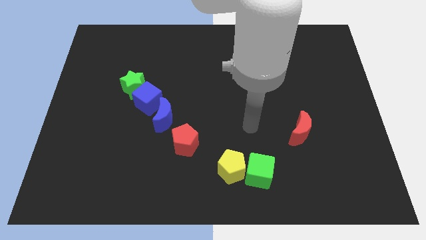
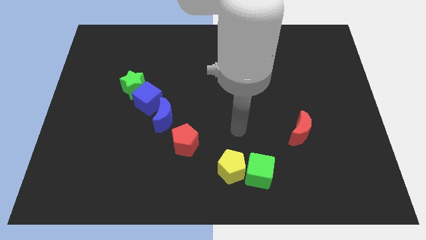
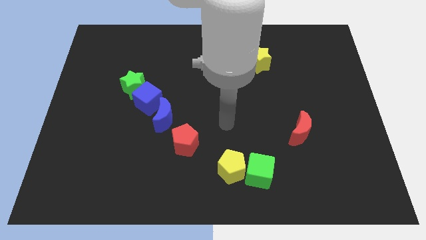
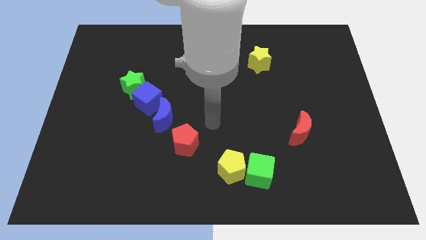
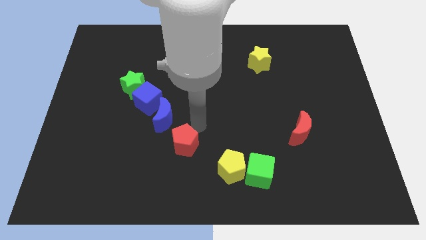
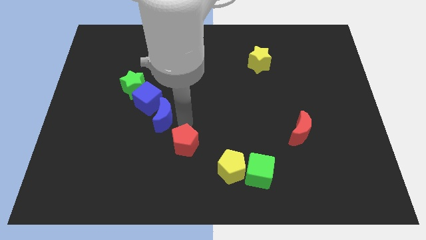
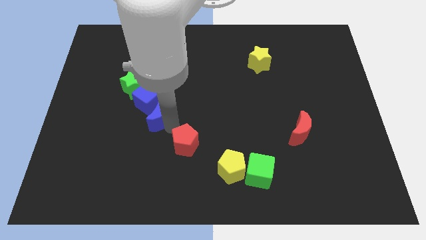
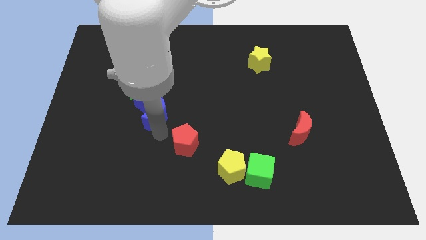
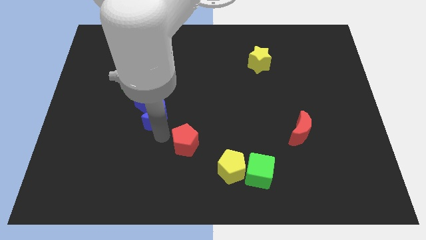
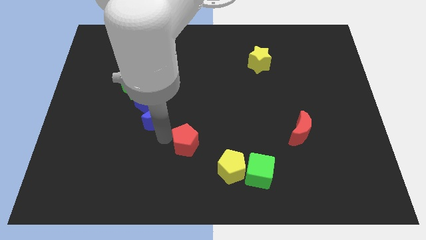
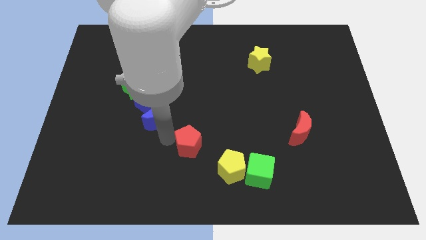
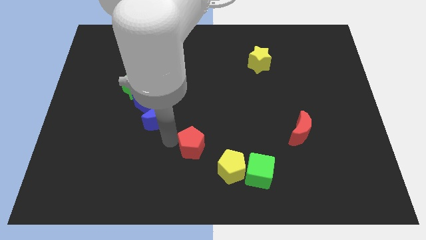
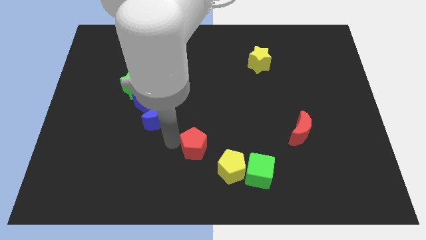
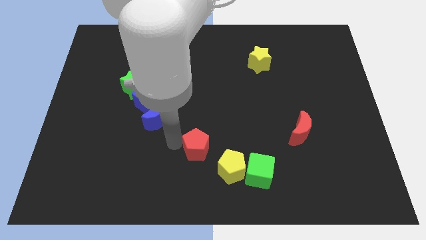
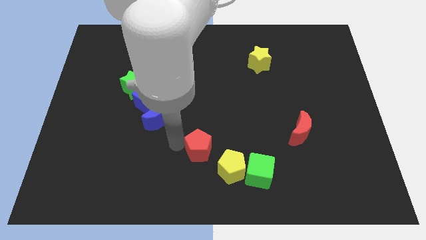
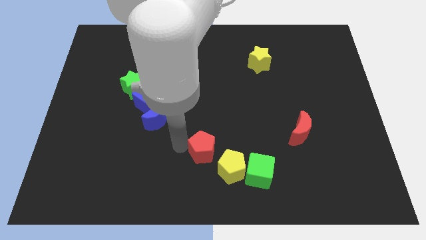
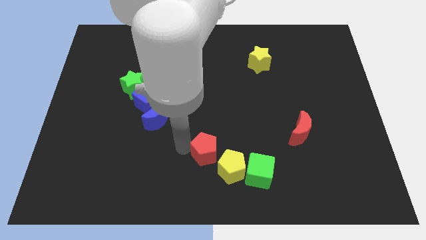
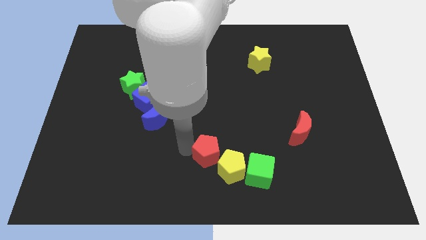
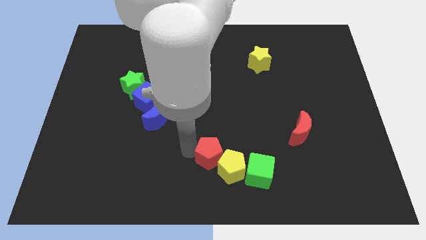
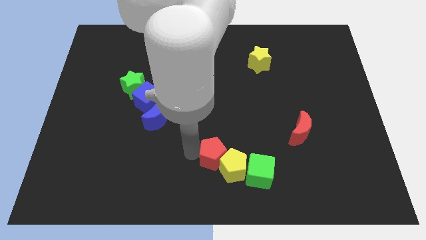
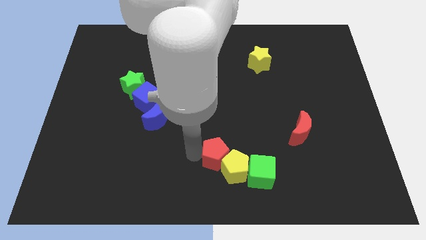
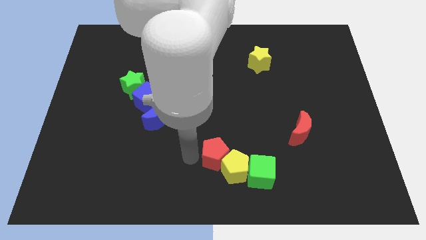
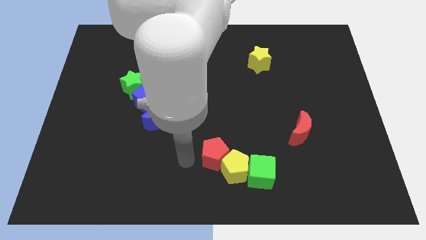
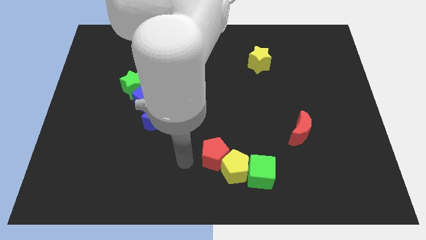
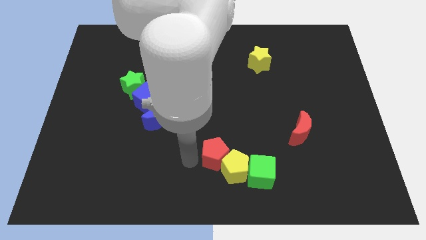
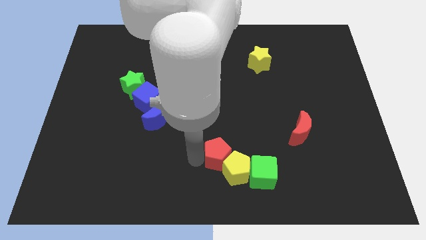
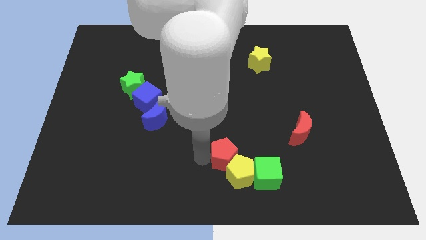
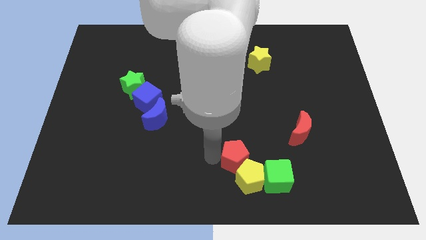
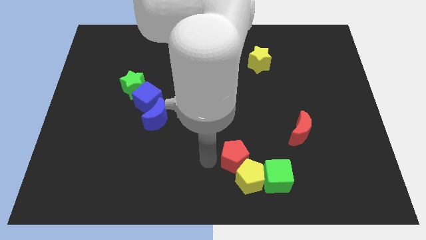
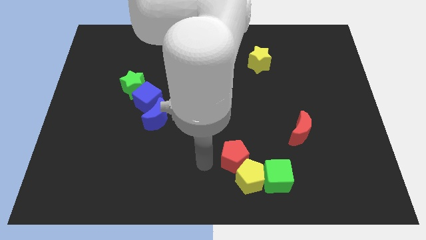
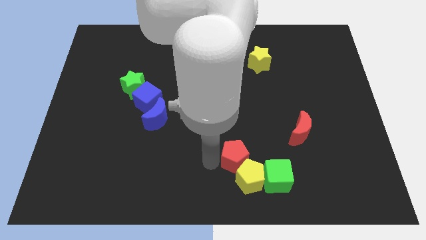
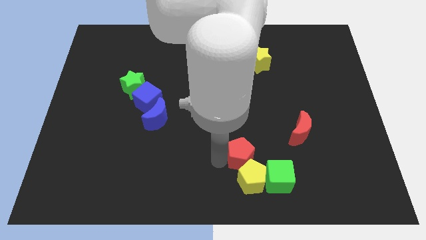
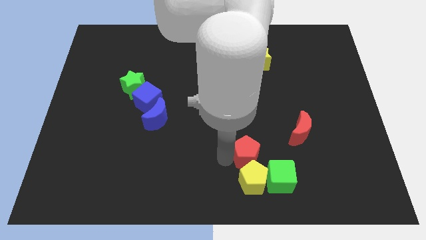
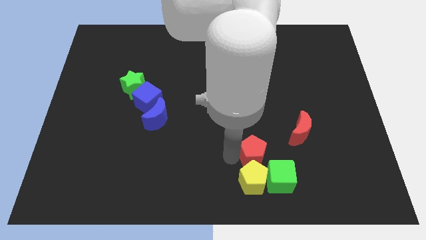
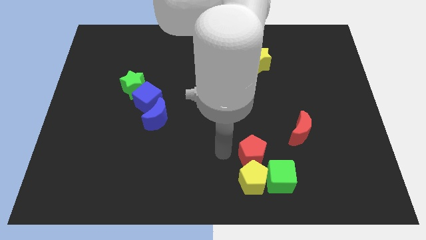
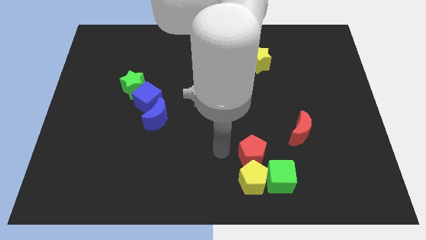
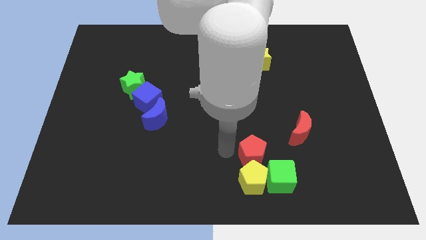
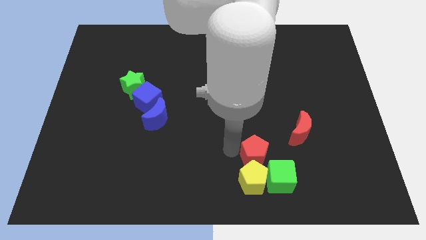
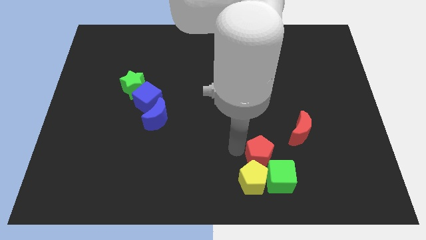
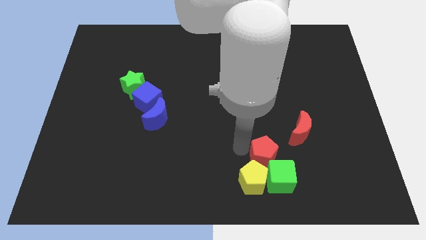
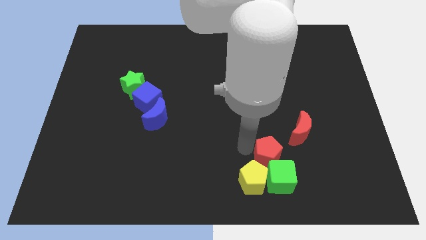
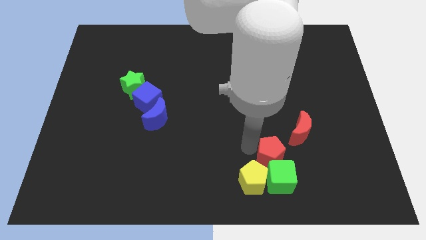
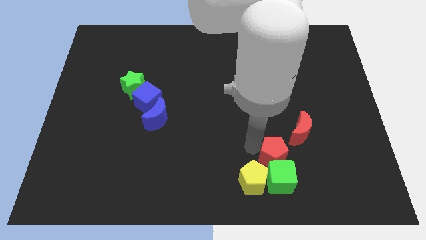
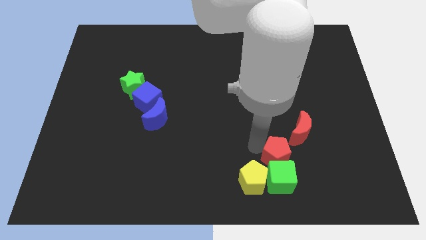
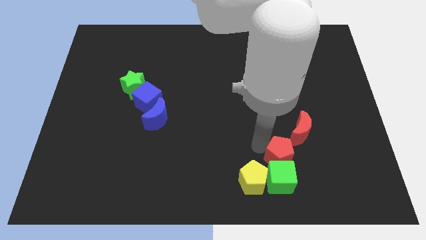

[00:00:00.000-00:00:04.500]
move the red pentagon right

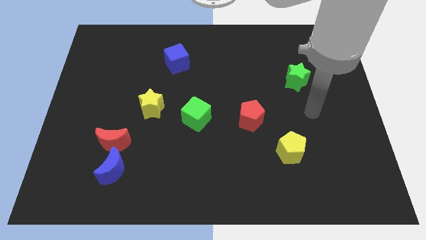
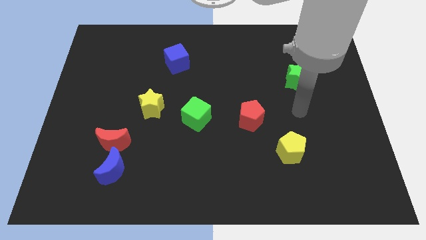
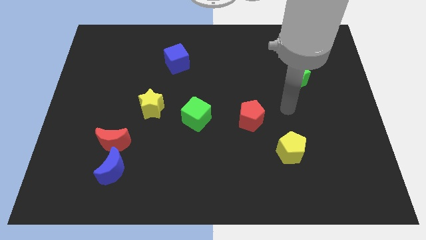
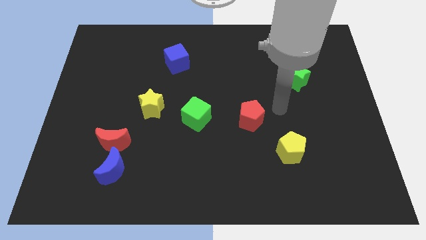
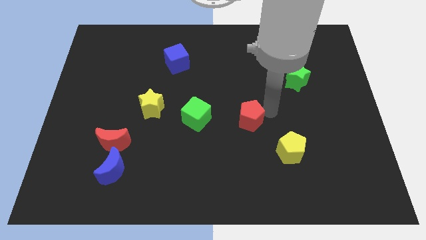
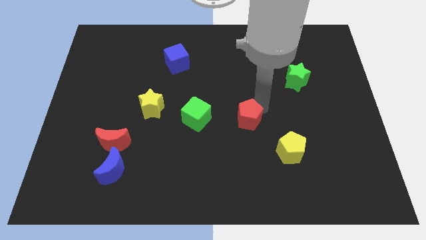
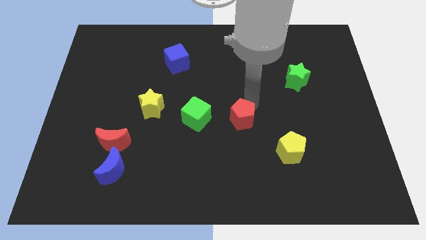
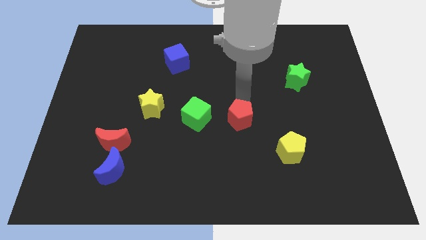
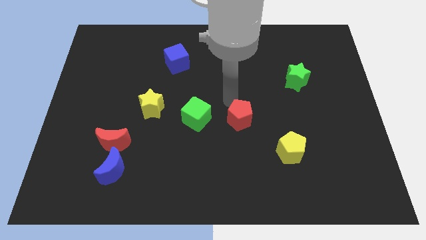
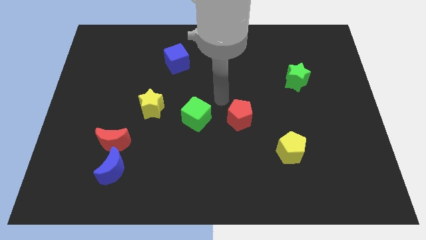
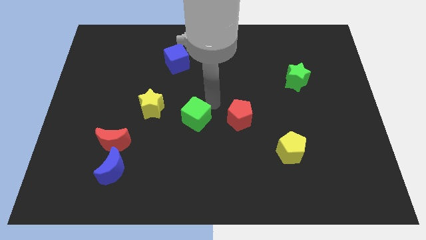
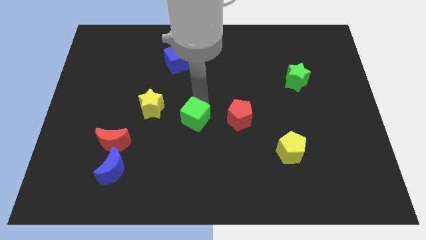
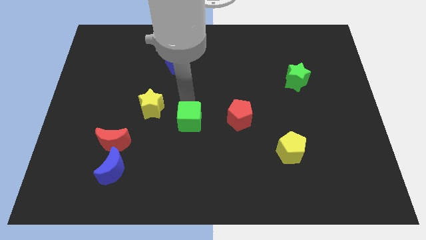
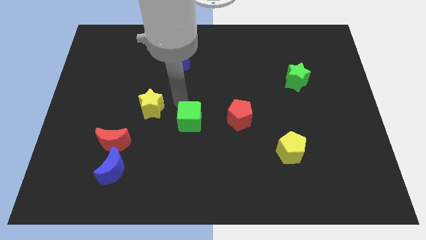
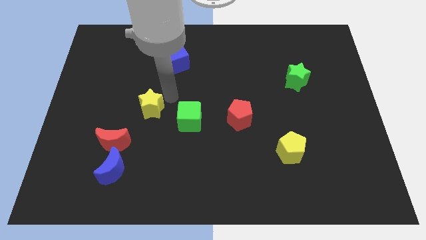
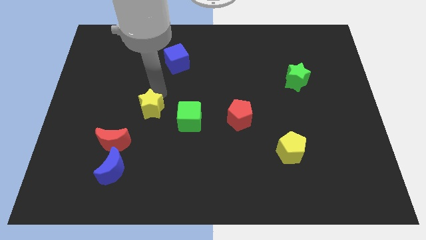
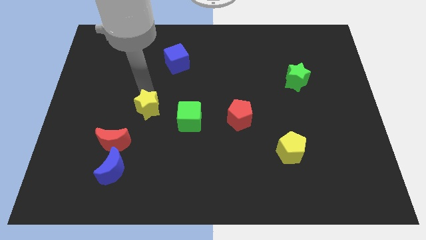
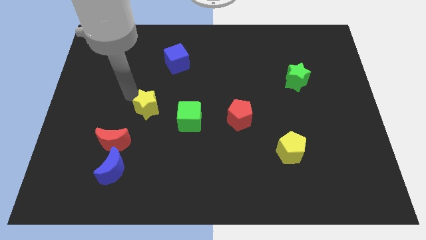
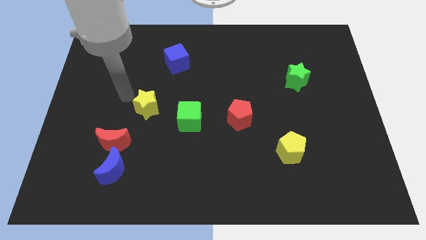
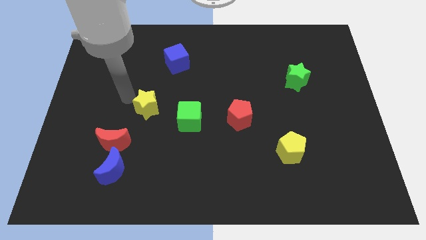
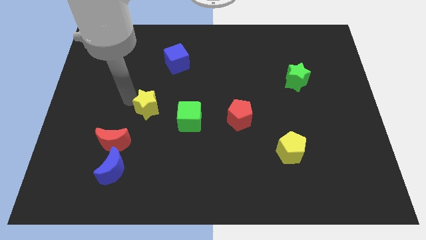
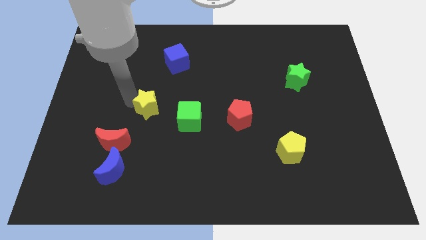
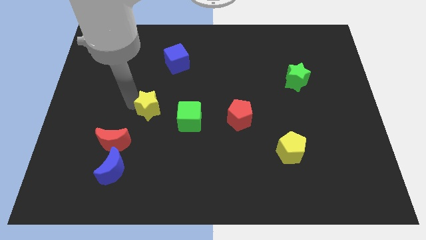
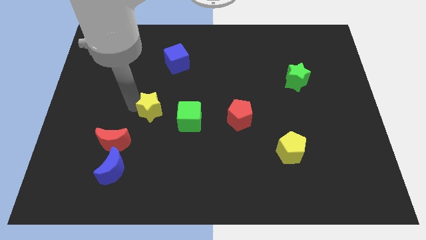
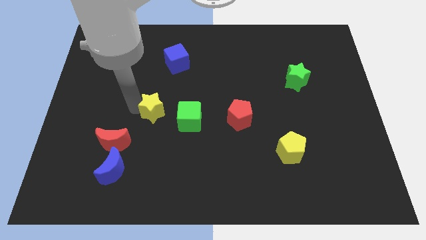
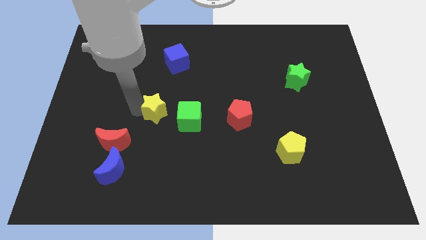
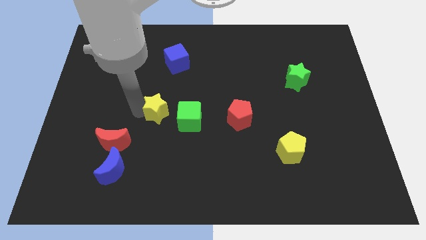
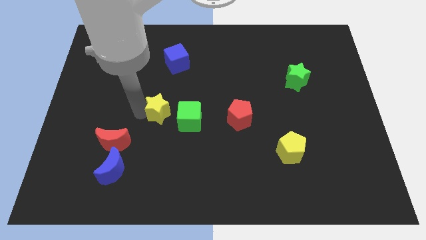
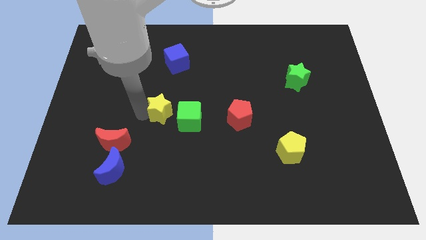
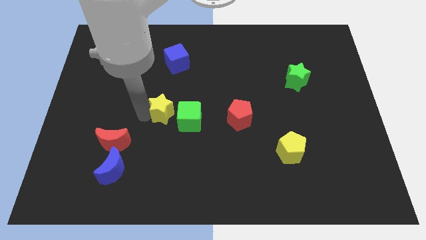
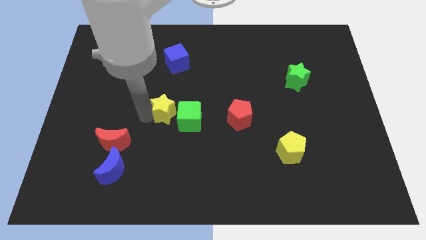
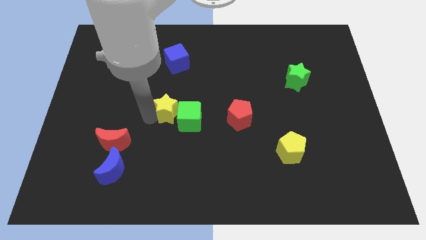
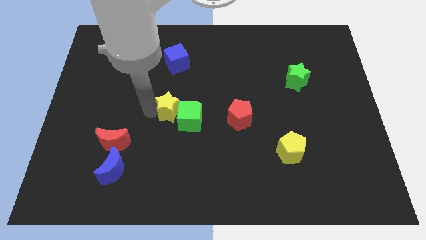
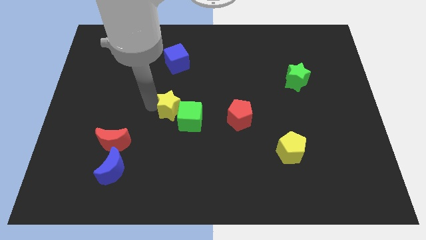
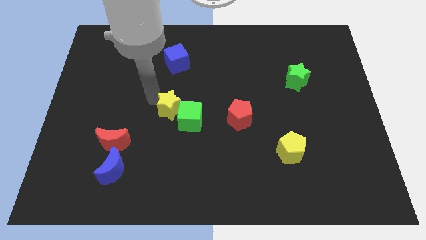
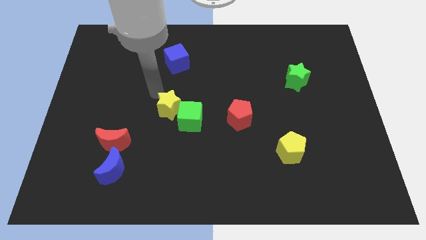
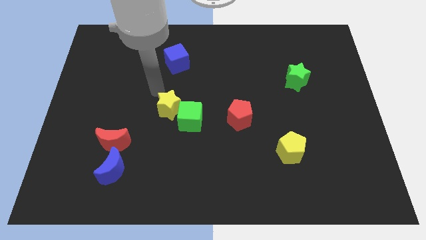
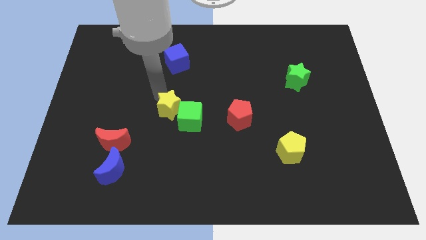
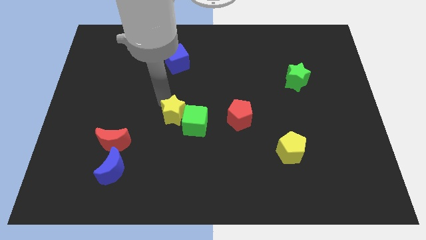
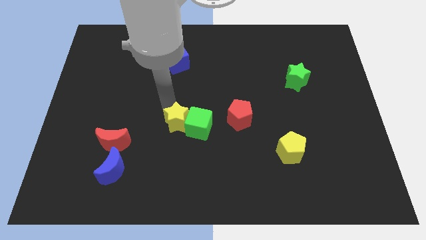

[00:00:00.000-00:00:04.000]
slightly move the yellow star downwards and to the right diagonally
